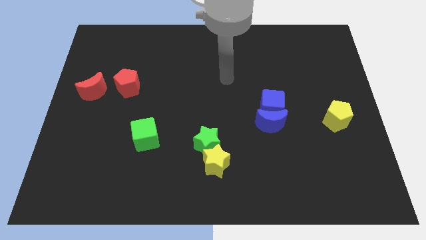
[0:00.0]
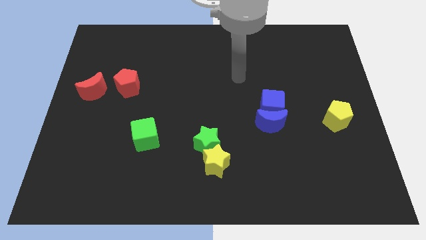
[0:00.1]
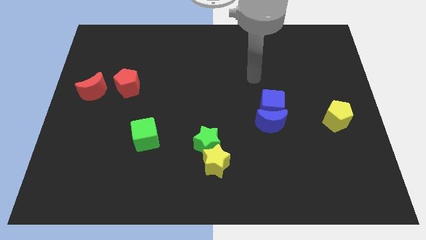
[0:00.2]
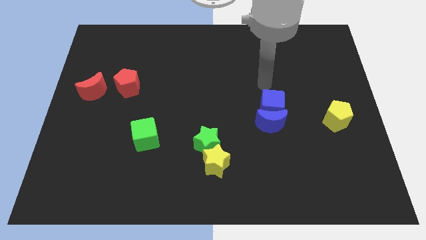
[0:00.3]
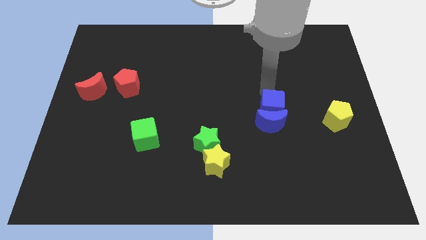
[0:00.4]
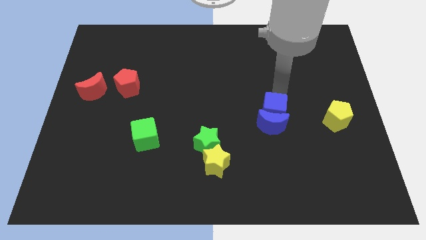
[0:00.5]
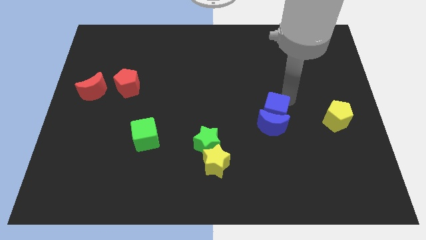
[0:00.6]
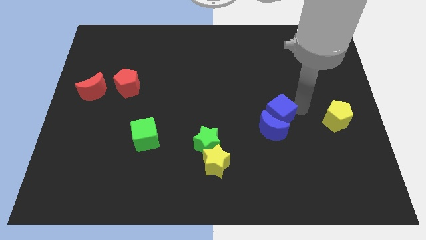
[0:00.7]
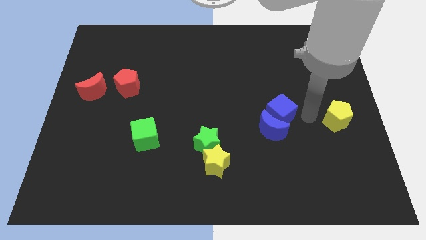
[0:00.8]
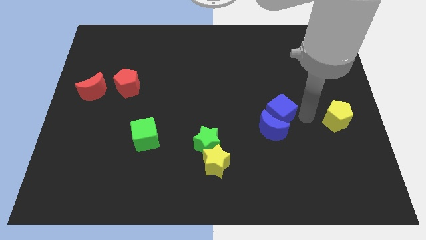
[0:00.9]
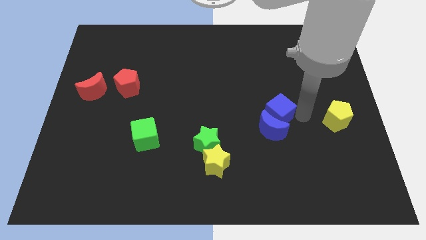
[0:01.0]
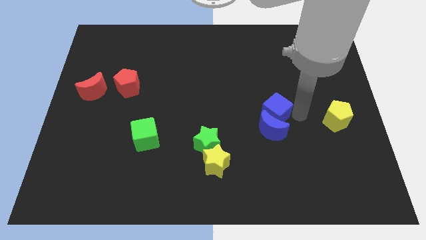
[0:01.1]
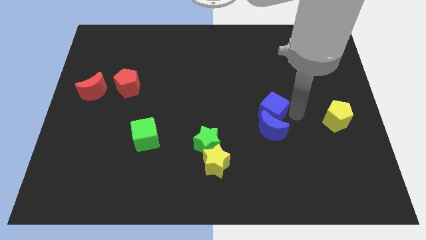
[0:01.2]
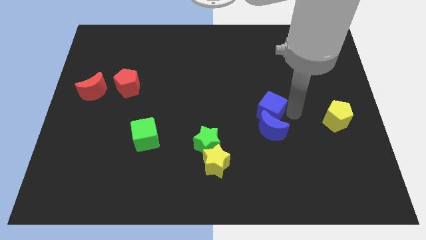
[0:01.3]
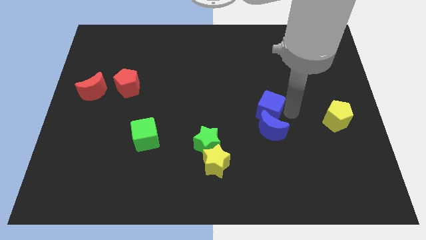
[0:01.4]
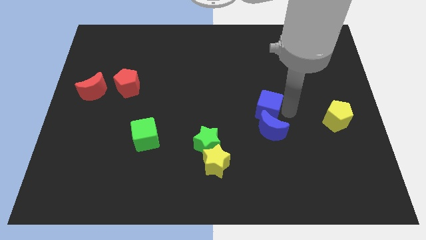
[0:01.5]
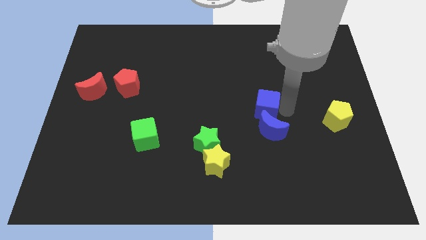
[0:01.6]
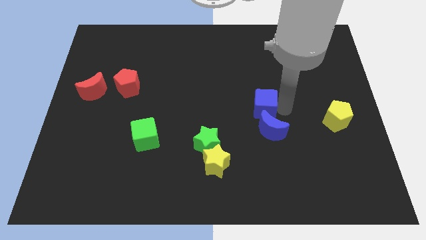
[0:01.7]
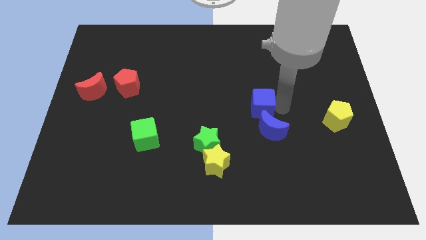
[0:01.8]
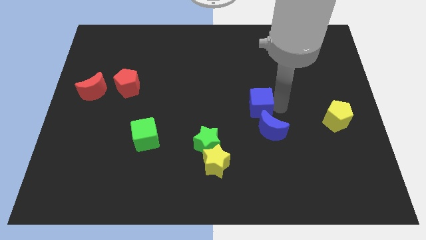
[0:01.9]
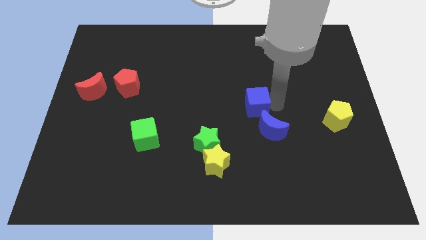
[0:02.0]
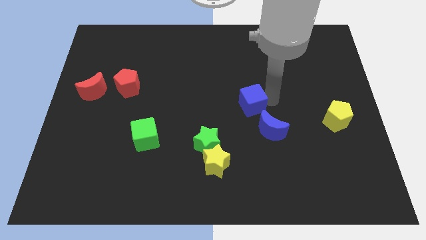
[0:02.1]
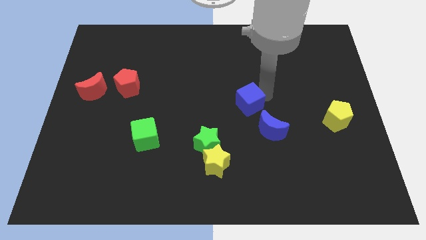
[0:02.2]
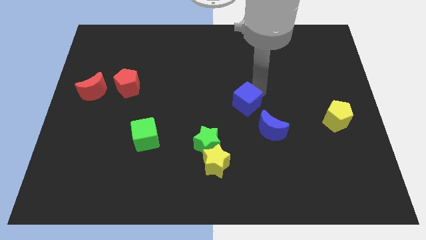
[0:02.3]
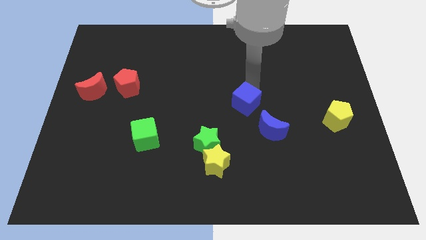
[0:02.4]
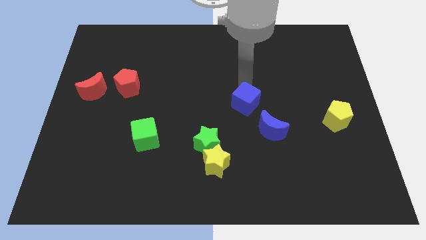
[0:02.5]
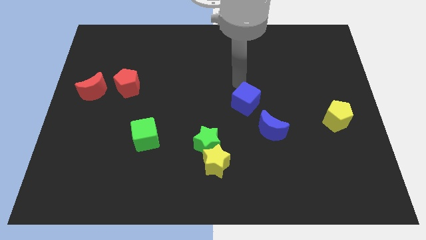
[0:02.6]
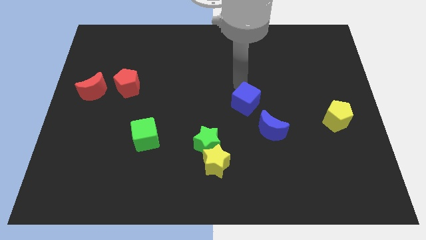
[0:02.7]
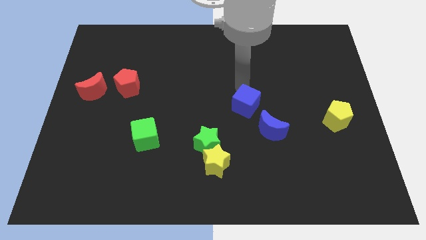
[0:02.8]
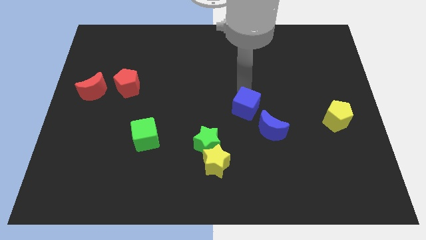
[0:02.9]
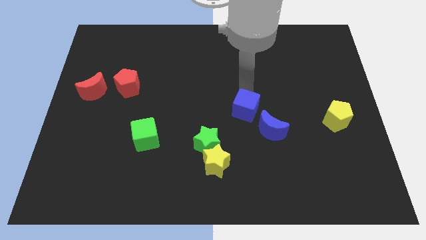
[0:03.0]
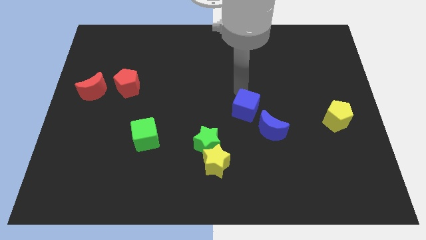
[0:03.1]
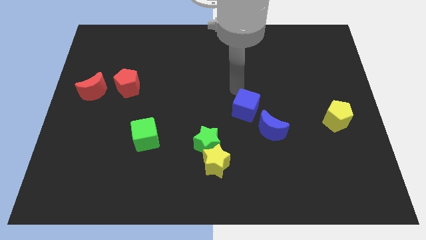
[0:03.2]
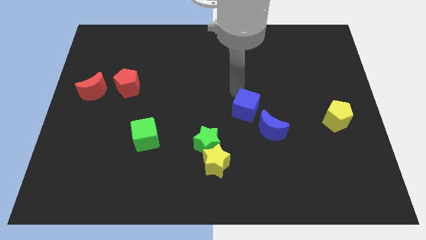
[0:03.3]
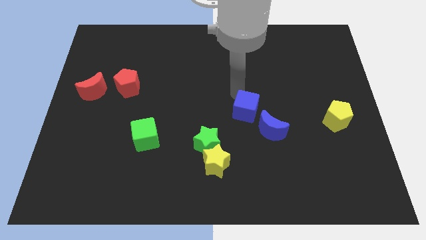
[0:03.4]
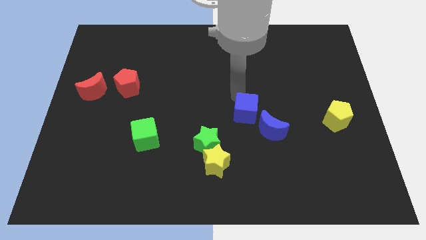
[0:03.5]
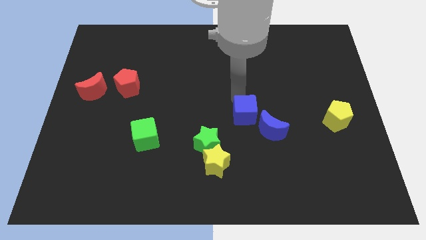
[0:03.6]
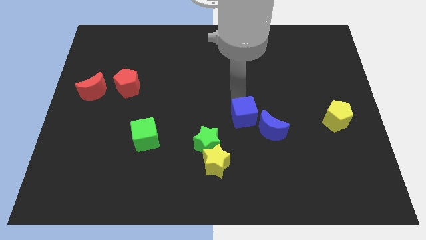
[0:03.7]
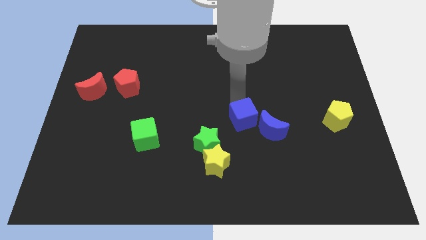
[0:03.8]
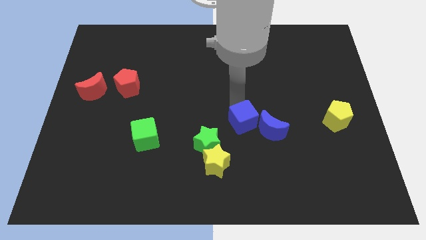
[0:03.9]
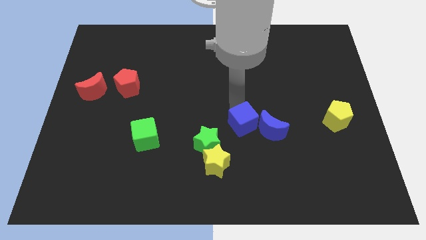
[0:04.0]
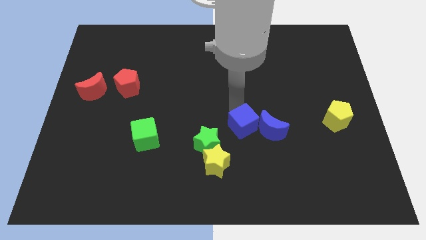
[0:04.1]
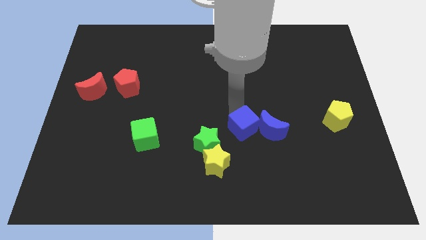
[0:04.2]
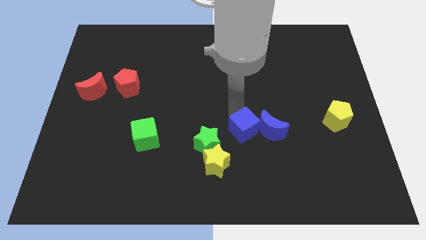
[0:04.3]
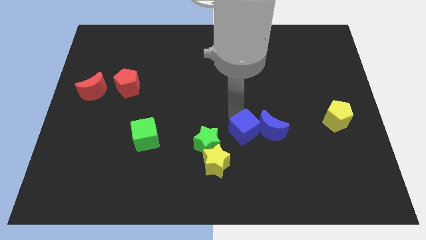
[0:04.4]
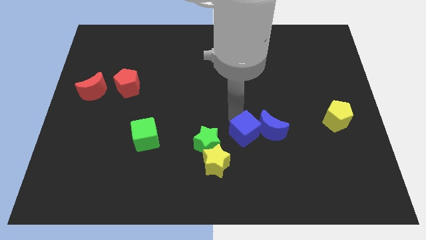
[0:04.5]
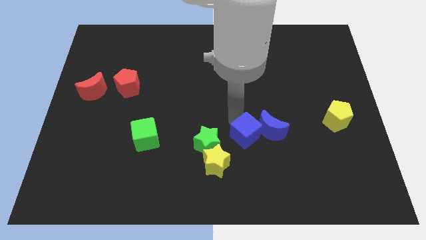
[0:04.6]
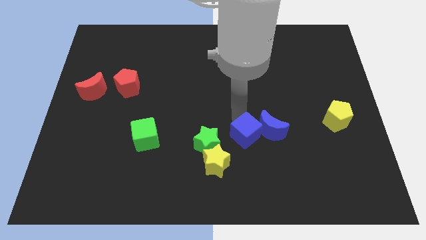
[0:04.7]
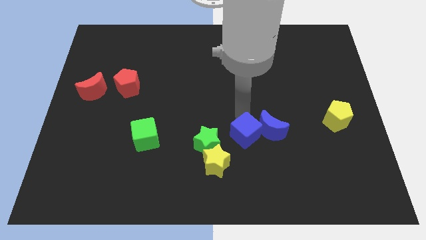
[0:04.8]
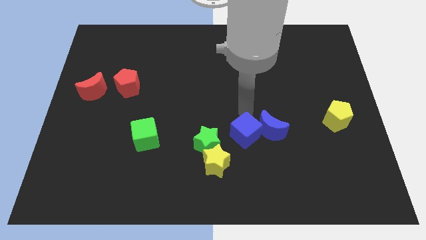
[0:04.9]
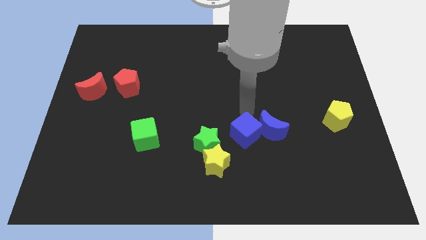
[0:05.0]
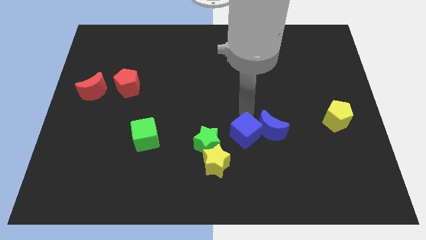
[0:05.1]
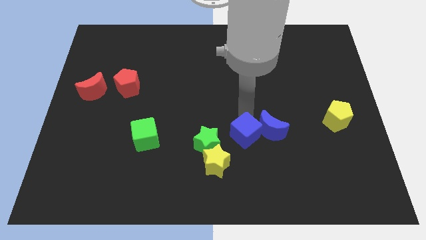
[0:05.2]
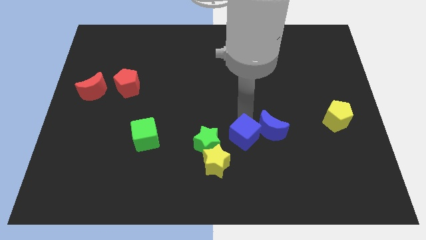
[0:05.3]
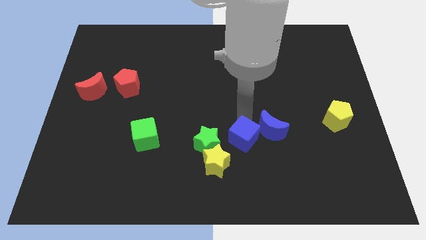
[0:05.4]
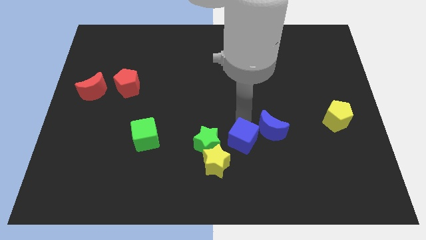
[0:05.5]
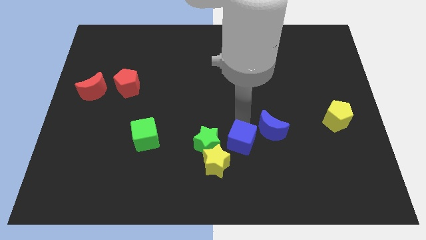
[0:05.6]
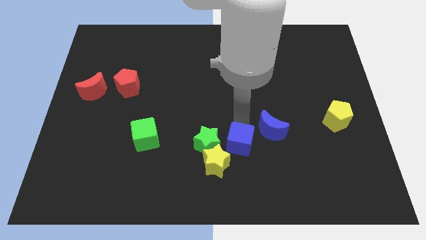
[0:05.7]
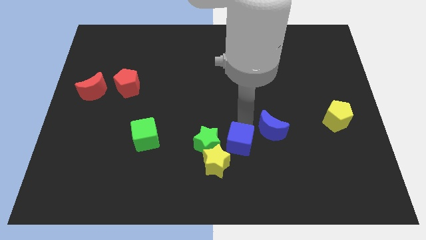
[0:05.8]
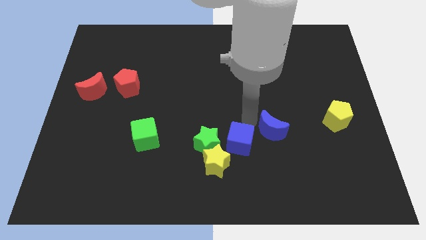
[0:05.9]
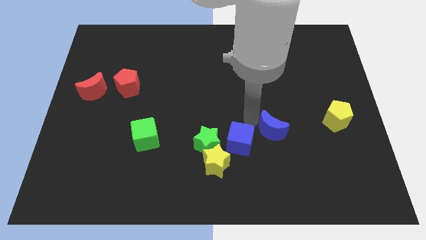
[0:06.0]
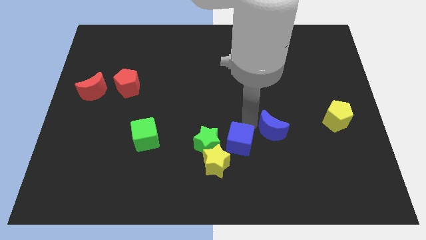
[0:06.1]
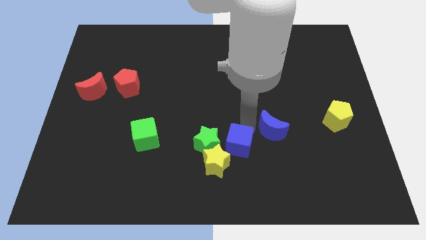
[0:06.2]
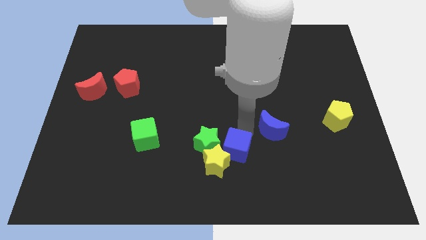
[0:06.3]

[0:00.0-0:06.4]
slide the blue cube towards the yellow star

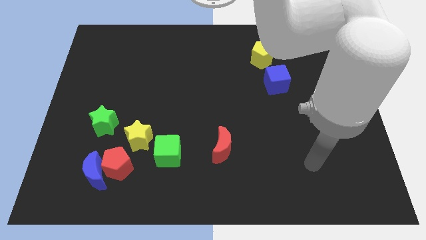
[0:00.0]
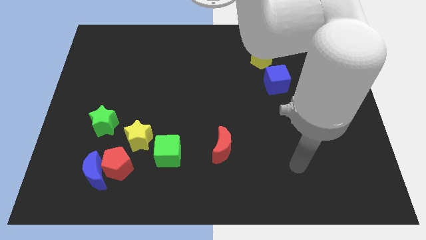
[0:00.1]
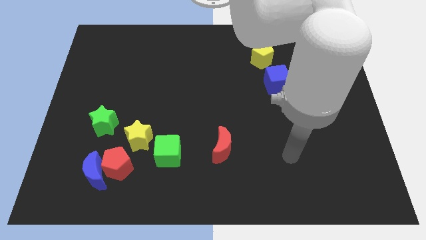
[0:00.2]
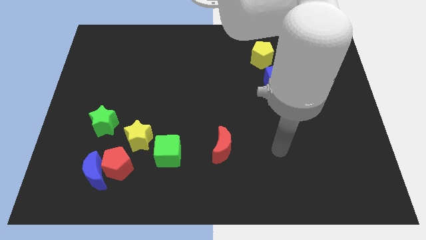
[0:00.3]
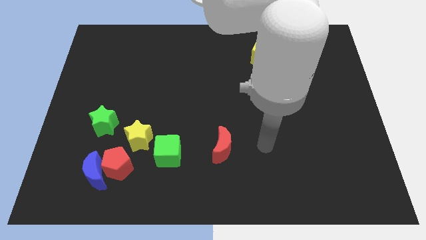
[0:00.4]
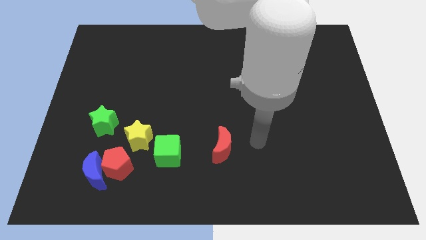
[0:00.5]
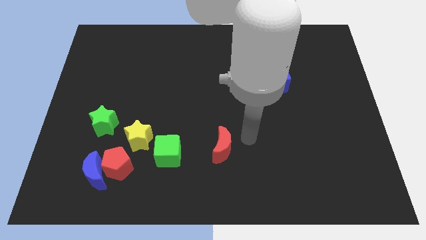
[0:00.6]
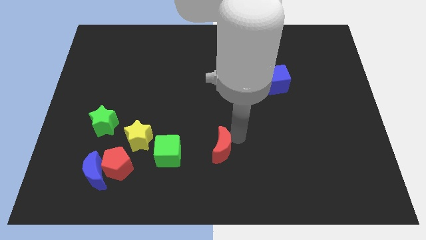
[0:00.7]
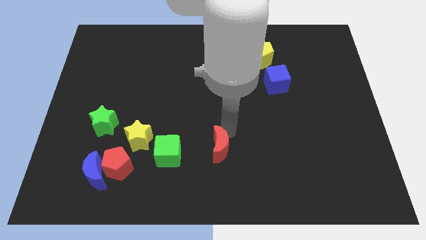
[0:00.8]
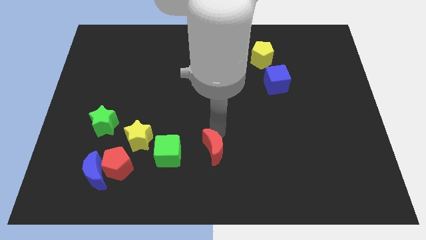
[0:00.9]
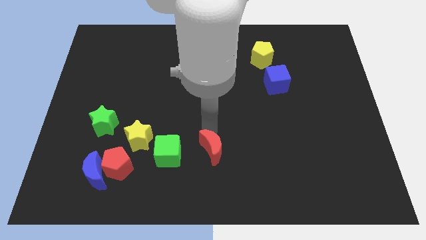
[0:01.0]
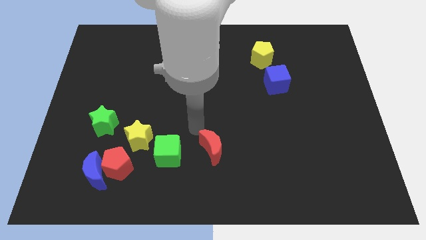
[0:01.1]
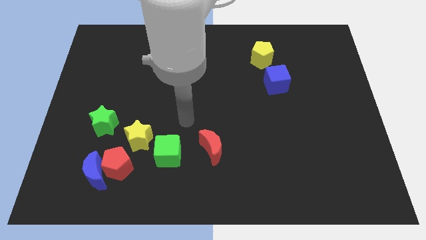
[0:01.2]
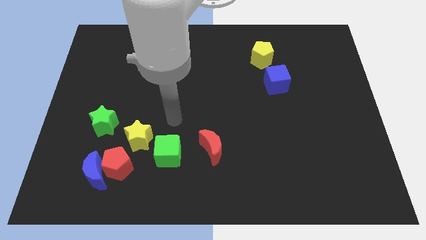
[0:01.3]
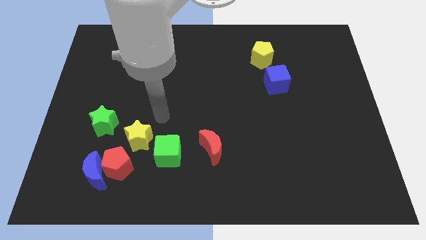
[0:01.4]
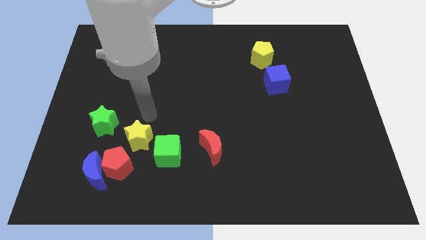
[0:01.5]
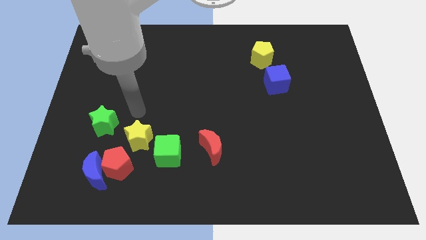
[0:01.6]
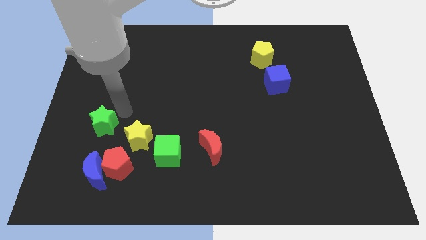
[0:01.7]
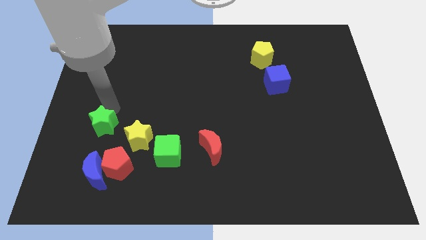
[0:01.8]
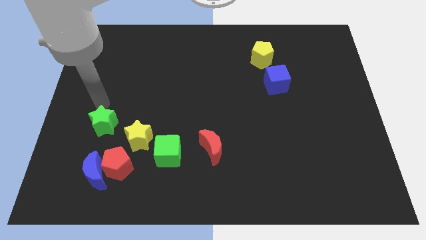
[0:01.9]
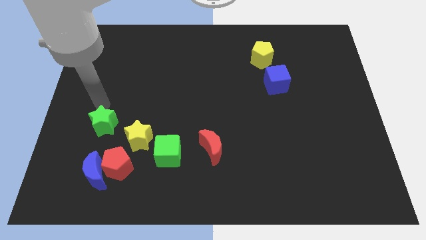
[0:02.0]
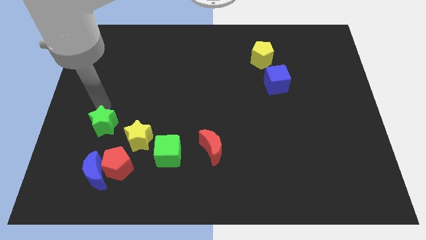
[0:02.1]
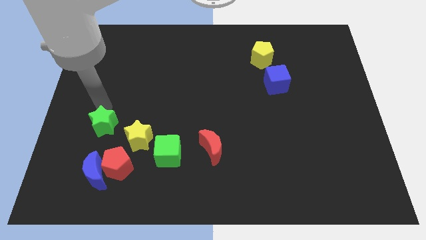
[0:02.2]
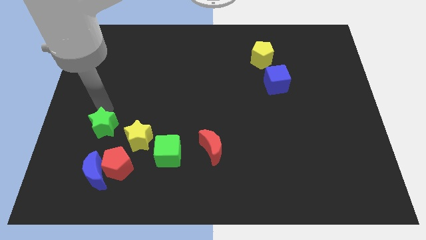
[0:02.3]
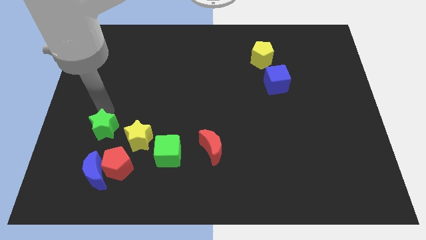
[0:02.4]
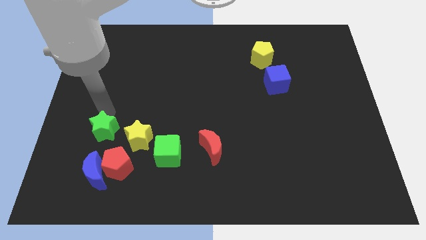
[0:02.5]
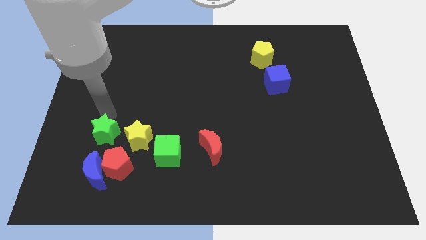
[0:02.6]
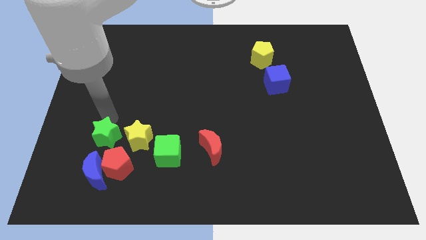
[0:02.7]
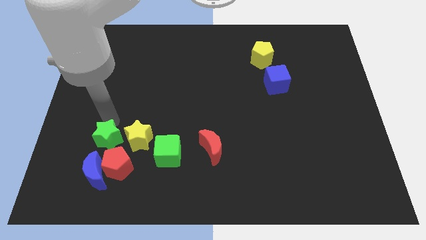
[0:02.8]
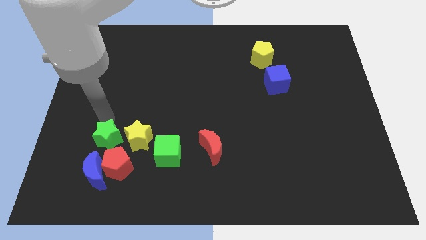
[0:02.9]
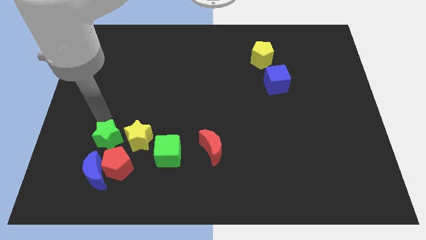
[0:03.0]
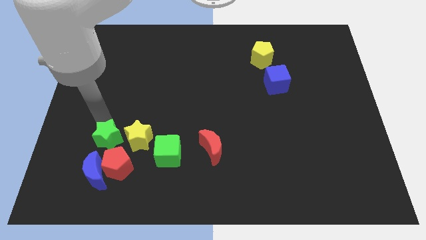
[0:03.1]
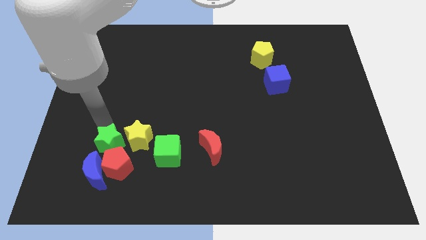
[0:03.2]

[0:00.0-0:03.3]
slide the green star next to the red pentagon
